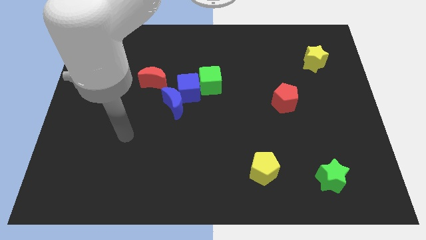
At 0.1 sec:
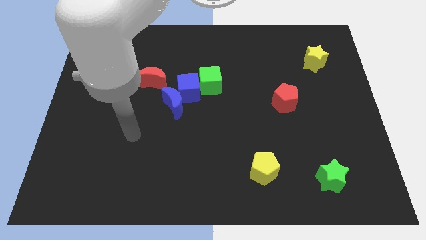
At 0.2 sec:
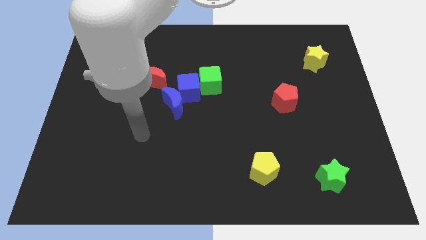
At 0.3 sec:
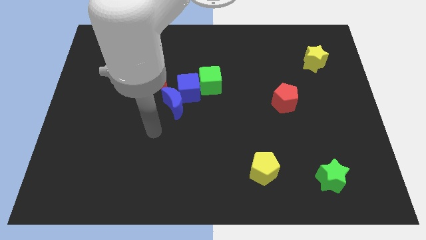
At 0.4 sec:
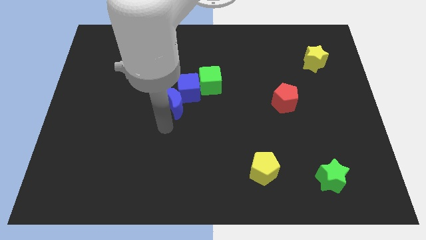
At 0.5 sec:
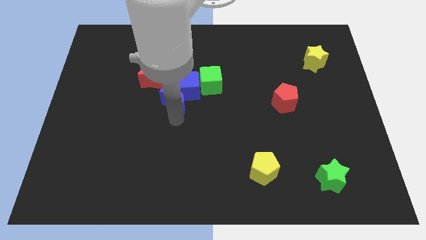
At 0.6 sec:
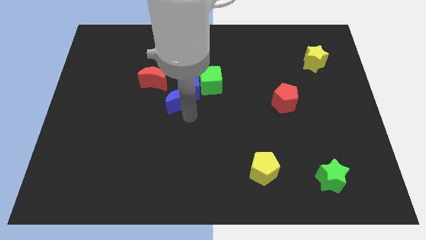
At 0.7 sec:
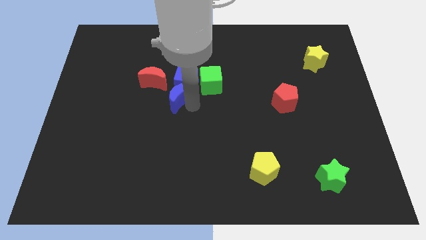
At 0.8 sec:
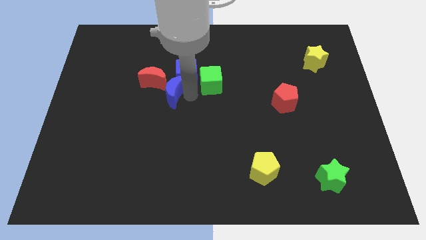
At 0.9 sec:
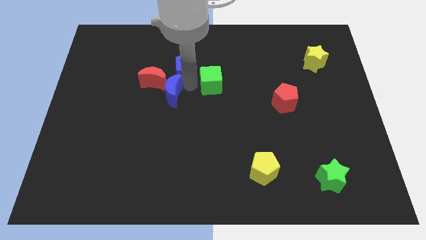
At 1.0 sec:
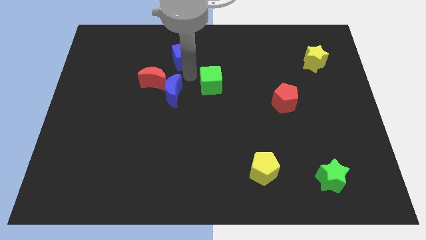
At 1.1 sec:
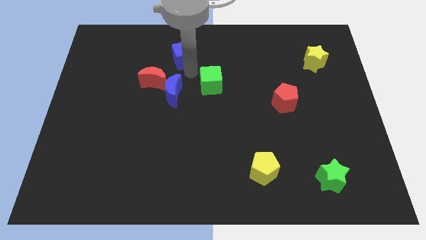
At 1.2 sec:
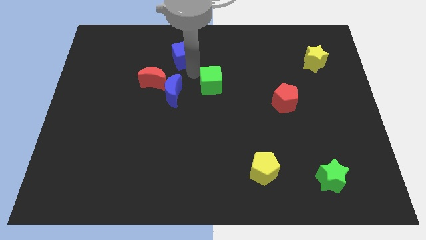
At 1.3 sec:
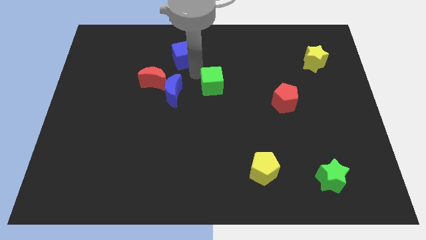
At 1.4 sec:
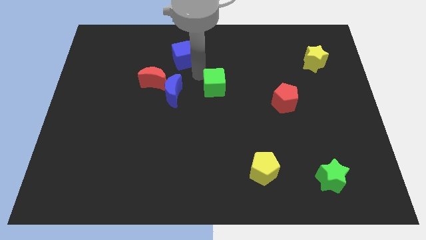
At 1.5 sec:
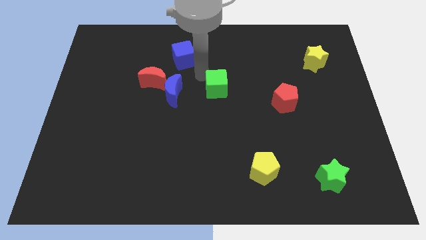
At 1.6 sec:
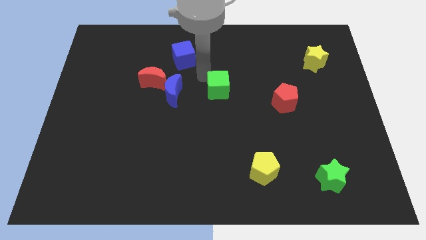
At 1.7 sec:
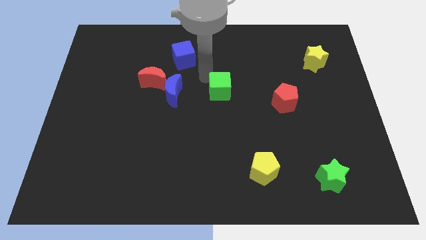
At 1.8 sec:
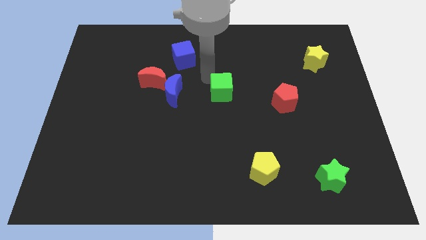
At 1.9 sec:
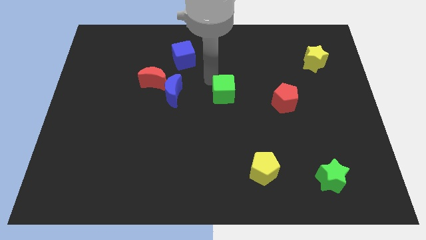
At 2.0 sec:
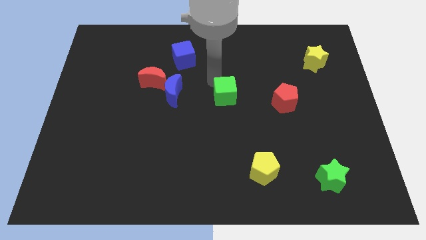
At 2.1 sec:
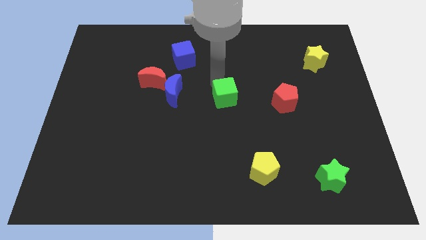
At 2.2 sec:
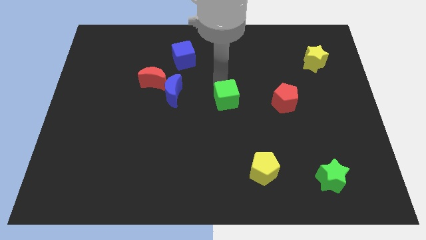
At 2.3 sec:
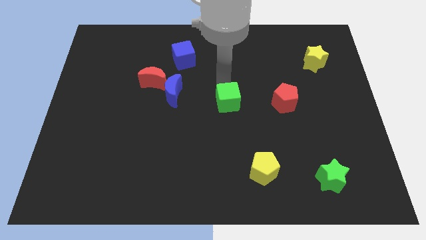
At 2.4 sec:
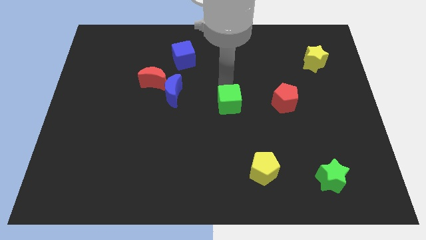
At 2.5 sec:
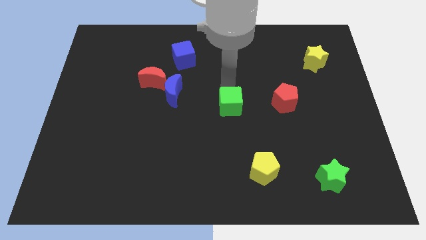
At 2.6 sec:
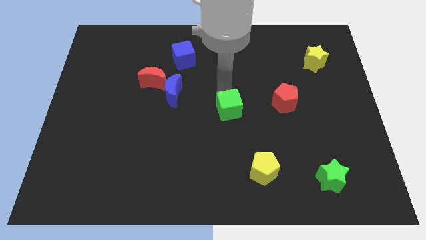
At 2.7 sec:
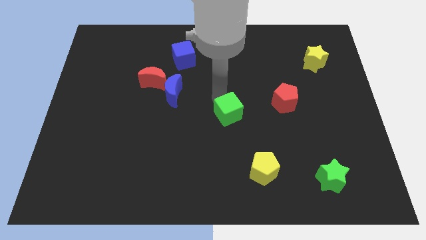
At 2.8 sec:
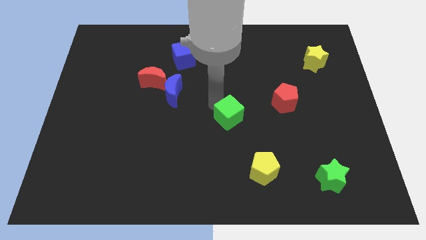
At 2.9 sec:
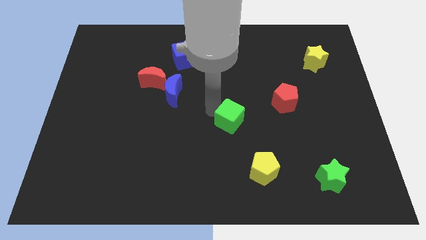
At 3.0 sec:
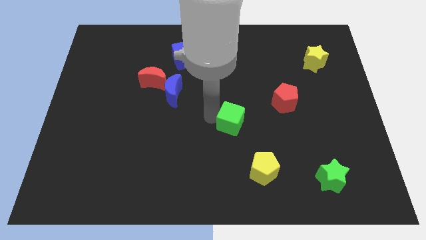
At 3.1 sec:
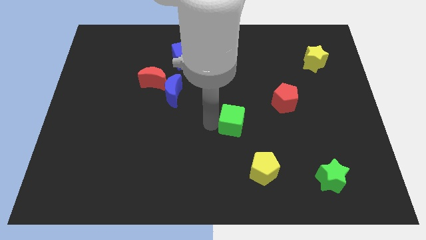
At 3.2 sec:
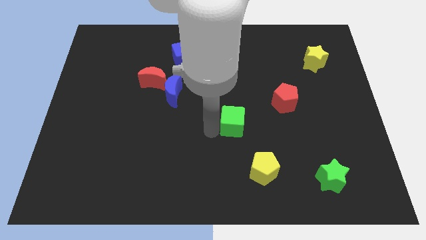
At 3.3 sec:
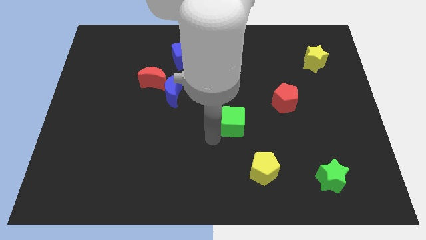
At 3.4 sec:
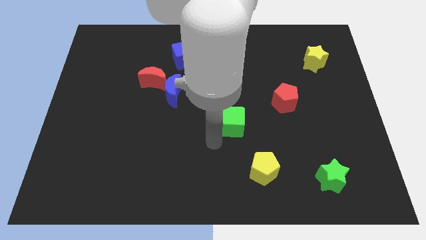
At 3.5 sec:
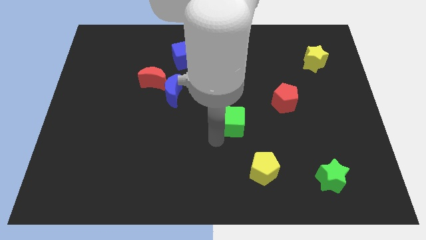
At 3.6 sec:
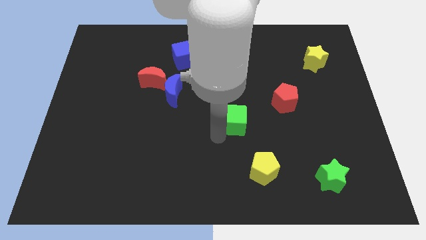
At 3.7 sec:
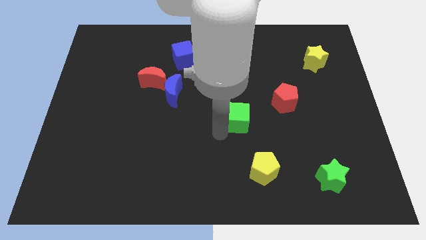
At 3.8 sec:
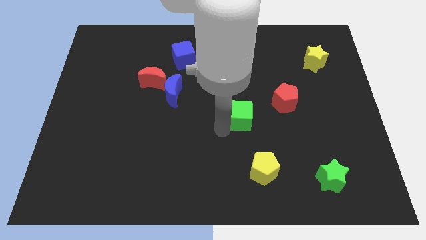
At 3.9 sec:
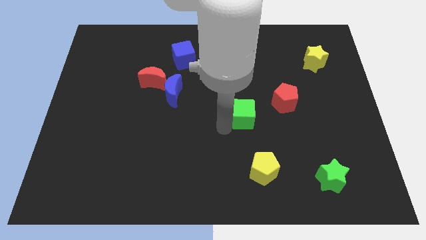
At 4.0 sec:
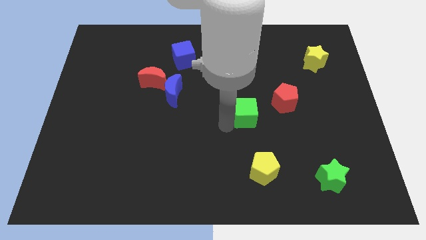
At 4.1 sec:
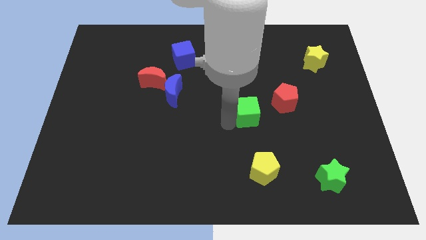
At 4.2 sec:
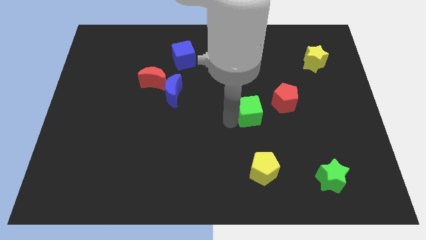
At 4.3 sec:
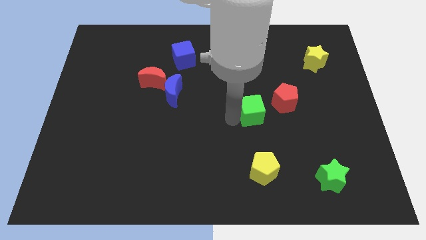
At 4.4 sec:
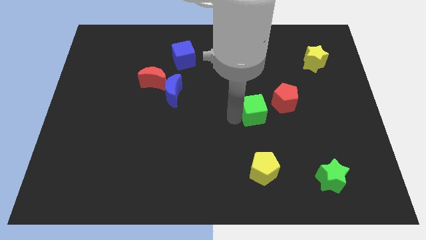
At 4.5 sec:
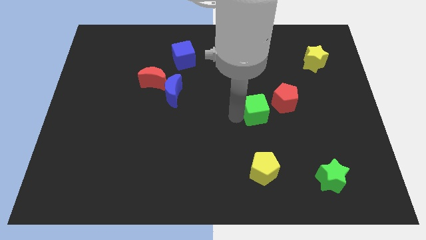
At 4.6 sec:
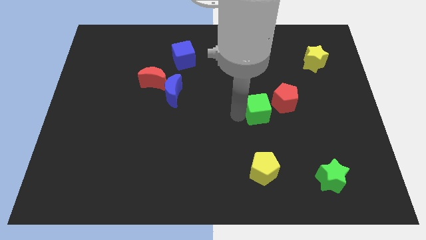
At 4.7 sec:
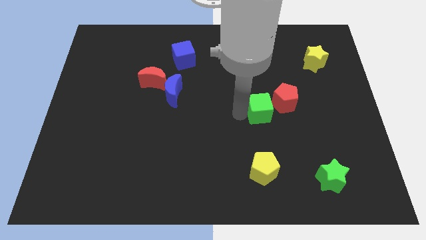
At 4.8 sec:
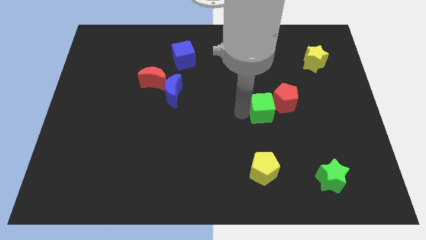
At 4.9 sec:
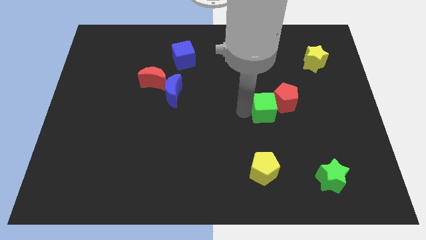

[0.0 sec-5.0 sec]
push the green cube close to the red pentagon

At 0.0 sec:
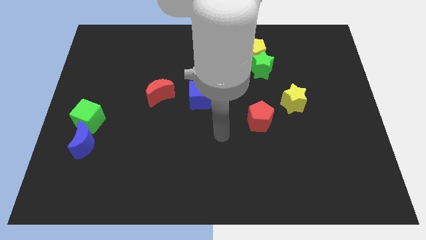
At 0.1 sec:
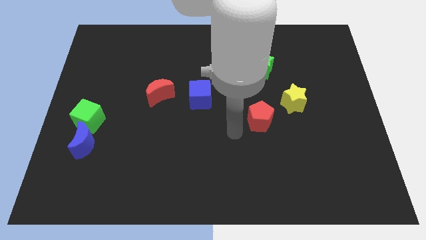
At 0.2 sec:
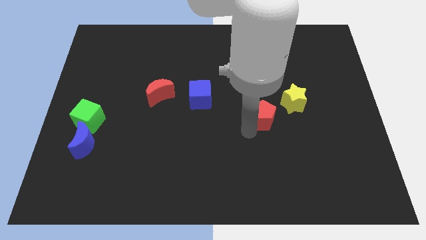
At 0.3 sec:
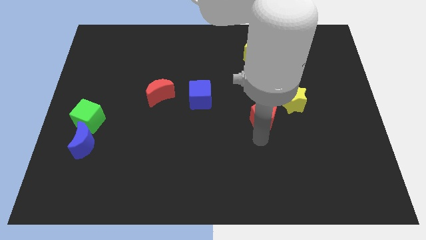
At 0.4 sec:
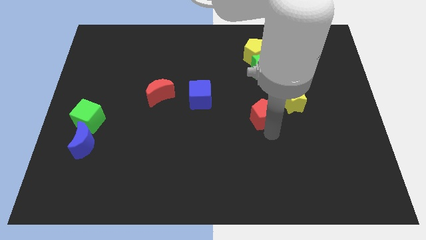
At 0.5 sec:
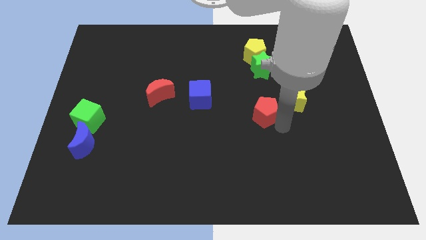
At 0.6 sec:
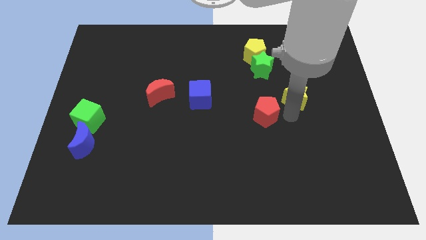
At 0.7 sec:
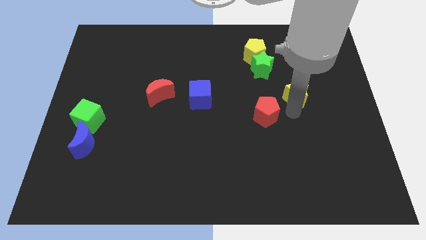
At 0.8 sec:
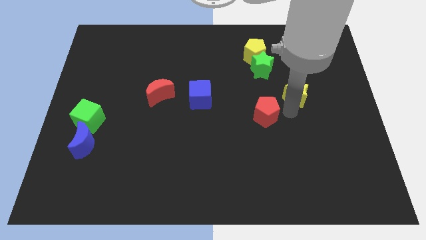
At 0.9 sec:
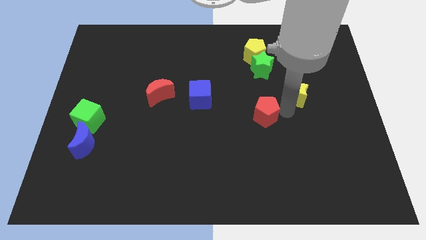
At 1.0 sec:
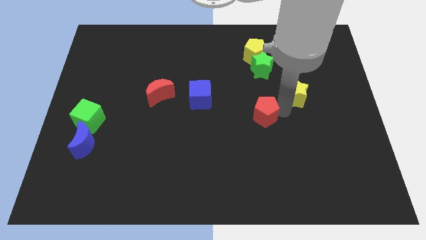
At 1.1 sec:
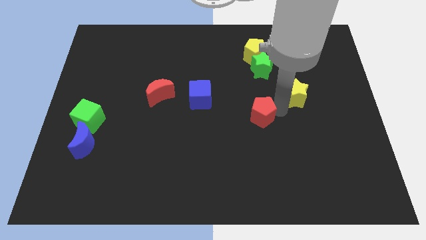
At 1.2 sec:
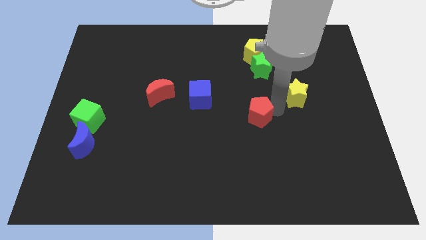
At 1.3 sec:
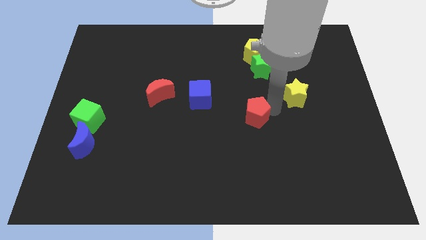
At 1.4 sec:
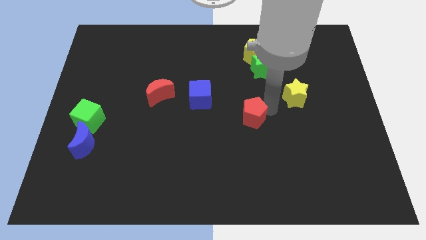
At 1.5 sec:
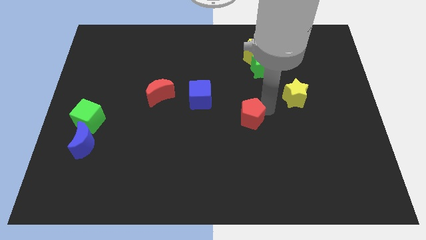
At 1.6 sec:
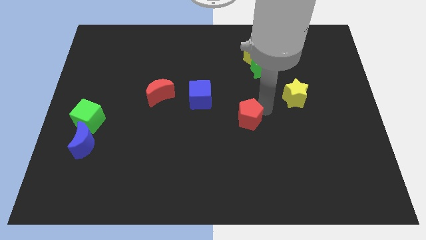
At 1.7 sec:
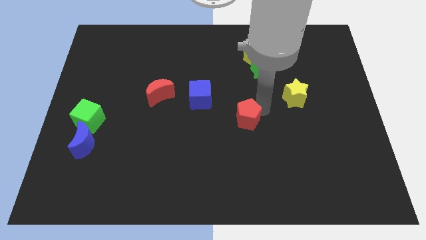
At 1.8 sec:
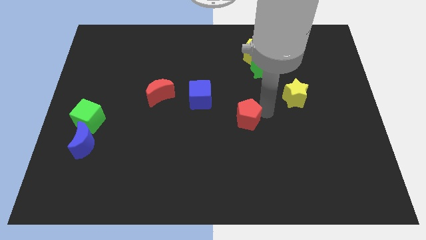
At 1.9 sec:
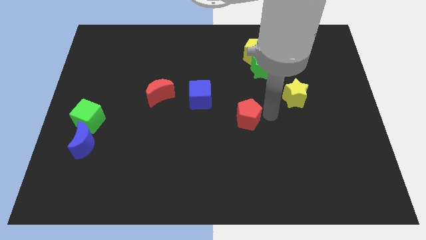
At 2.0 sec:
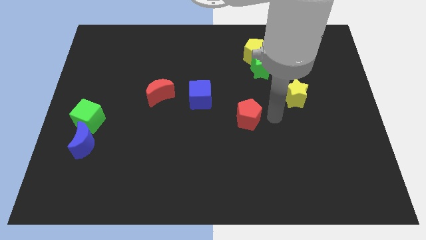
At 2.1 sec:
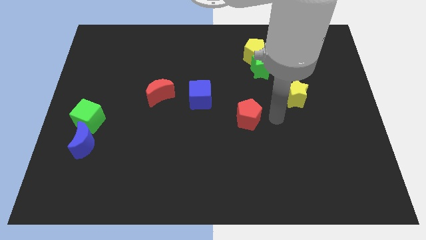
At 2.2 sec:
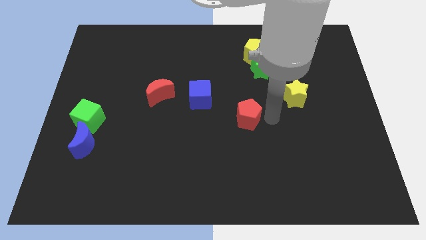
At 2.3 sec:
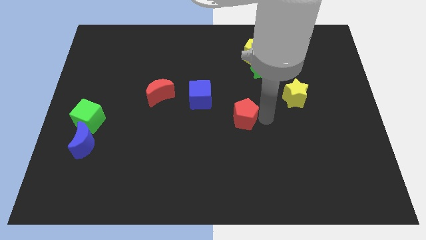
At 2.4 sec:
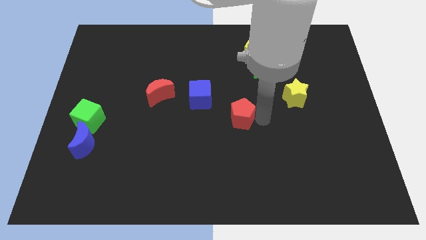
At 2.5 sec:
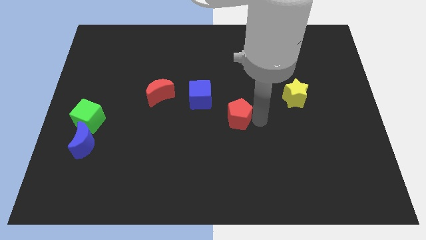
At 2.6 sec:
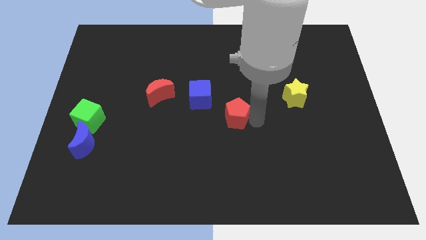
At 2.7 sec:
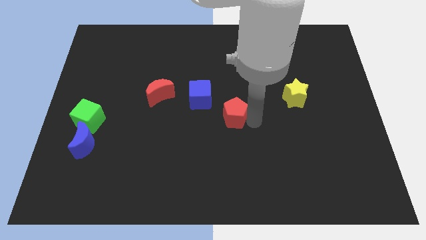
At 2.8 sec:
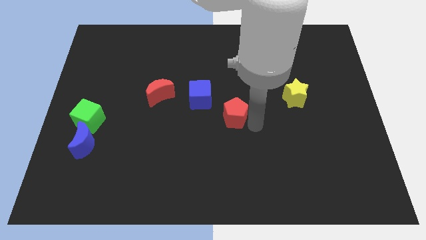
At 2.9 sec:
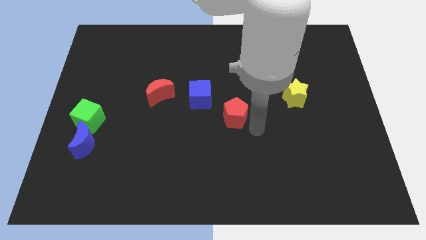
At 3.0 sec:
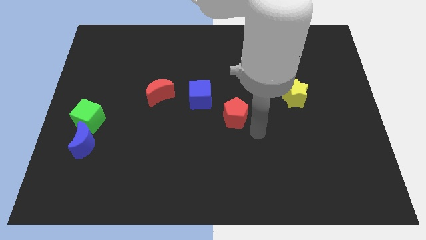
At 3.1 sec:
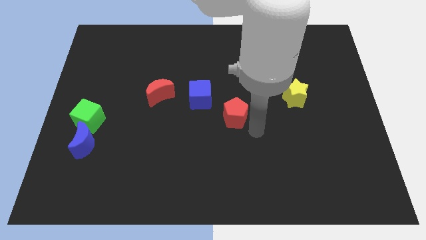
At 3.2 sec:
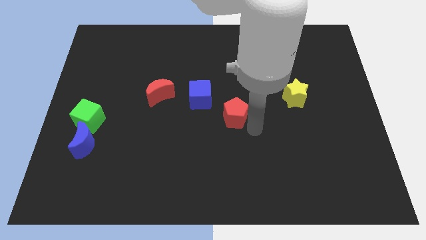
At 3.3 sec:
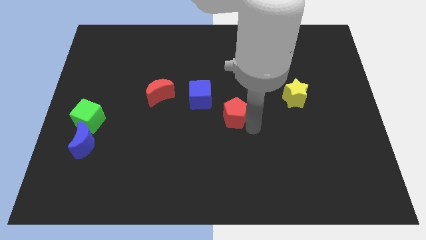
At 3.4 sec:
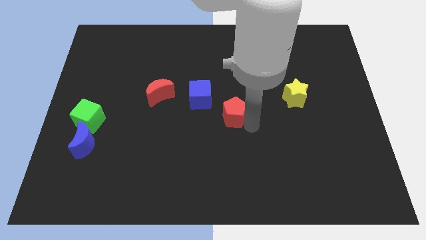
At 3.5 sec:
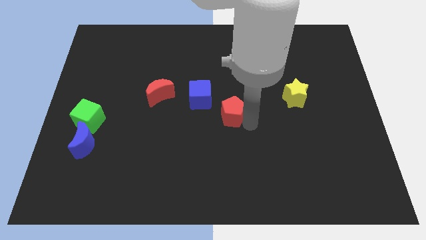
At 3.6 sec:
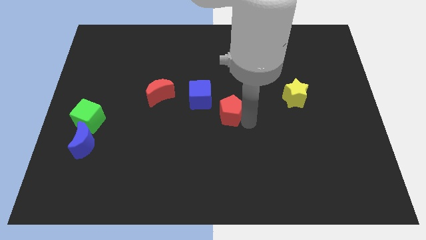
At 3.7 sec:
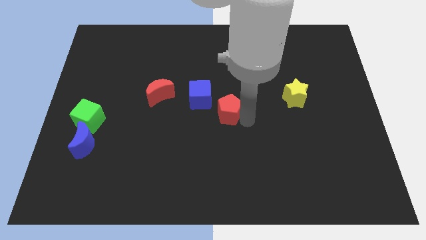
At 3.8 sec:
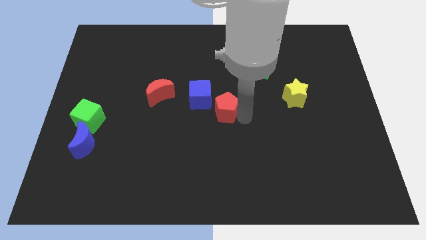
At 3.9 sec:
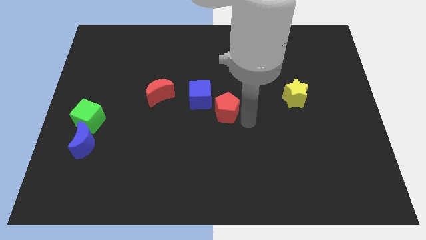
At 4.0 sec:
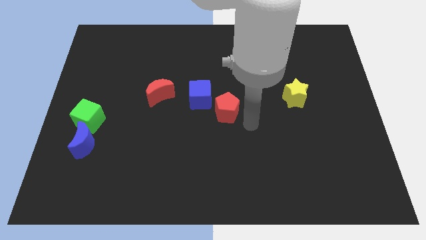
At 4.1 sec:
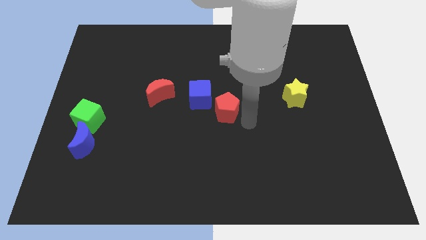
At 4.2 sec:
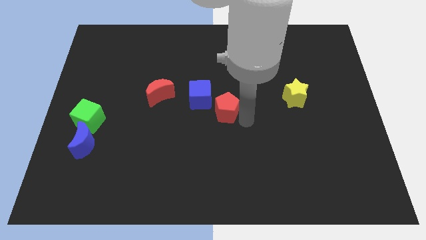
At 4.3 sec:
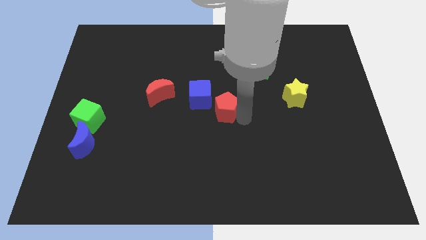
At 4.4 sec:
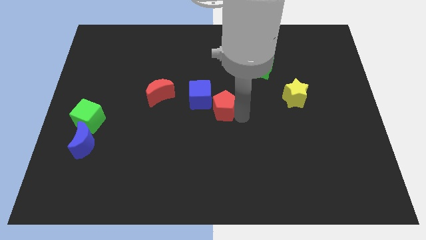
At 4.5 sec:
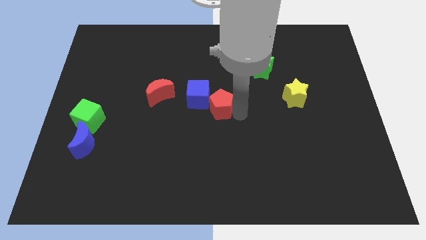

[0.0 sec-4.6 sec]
push the red pentagon towards the blue cube
